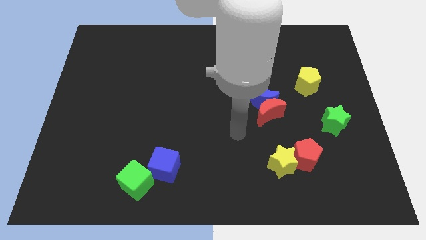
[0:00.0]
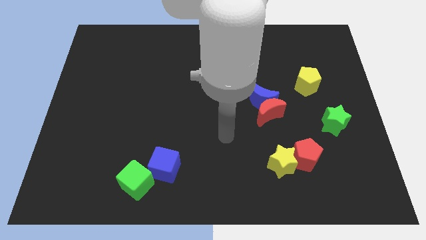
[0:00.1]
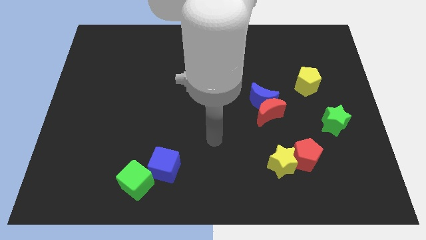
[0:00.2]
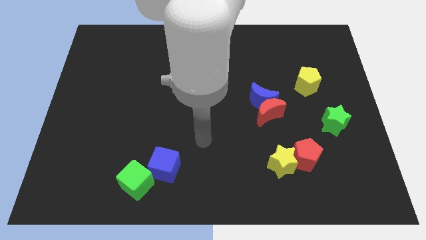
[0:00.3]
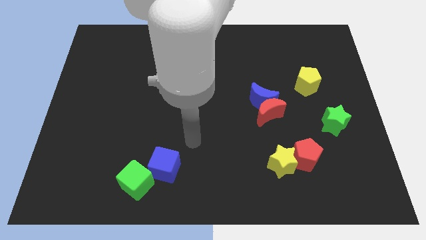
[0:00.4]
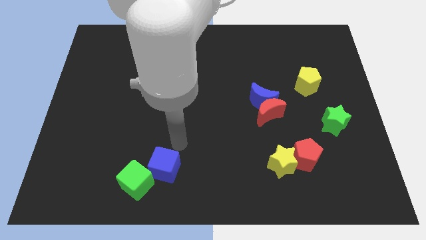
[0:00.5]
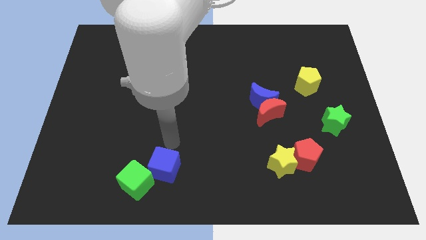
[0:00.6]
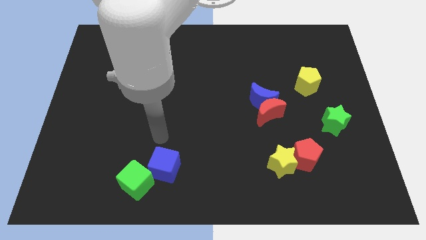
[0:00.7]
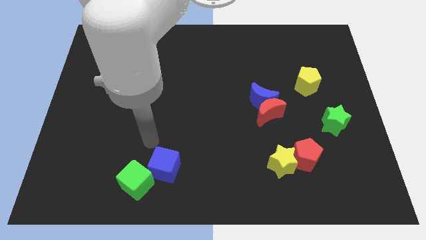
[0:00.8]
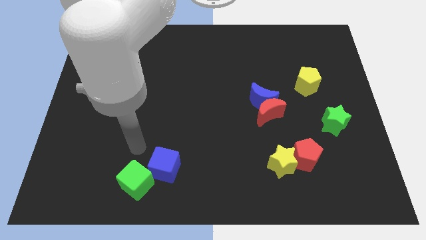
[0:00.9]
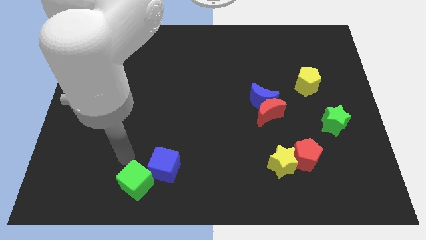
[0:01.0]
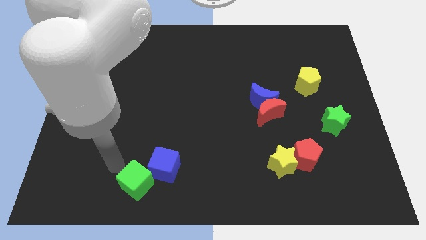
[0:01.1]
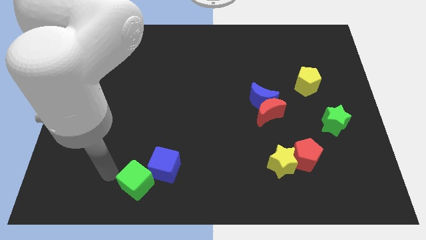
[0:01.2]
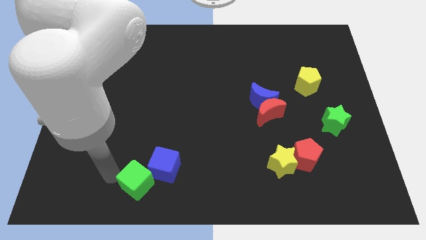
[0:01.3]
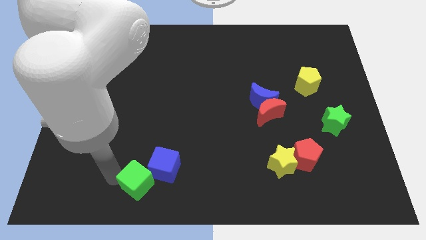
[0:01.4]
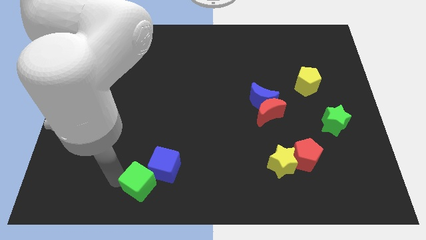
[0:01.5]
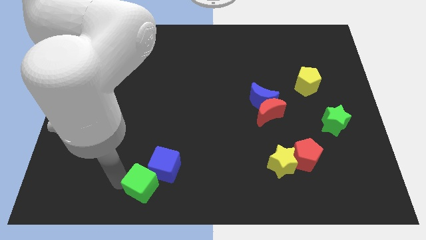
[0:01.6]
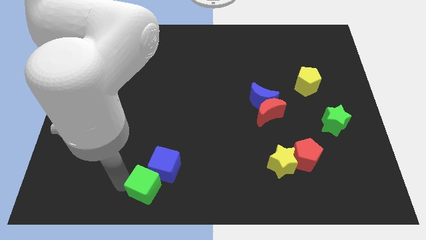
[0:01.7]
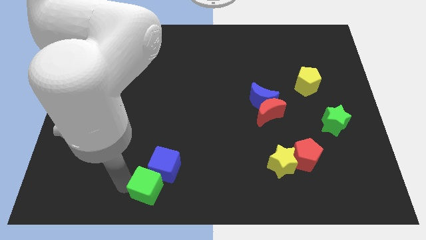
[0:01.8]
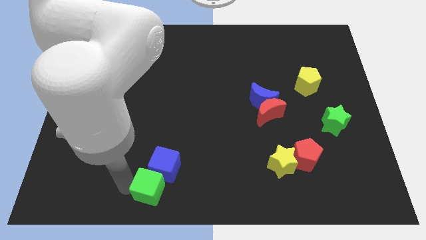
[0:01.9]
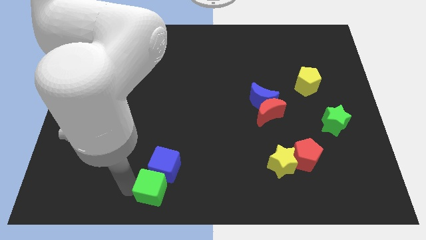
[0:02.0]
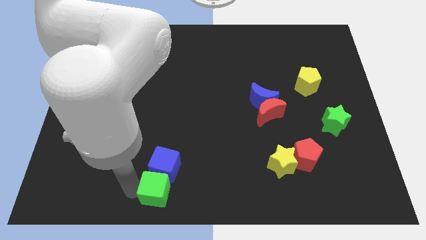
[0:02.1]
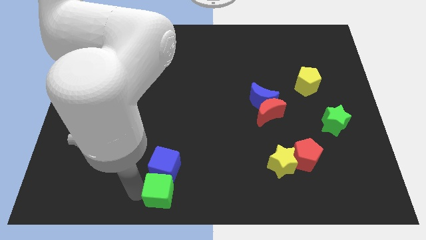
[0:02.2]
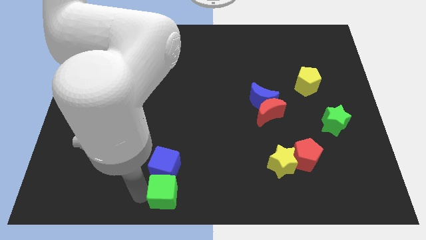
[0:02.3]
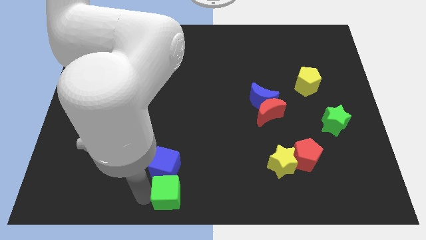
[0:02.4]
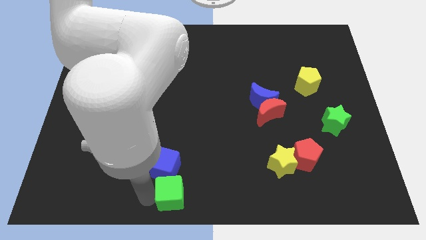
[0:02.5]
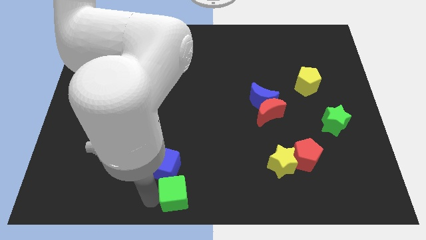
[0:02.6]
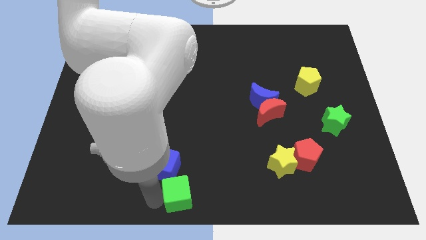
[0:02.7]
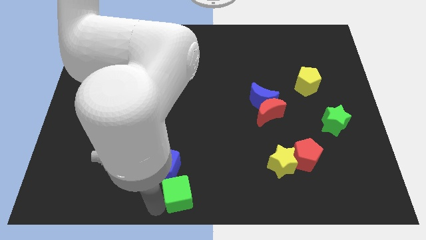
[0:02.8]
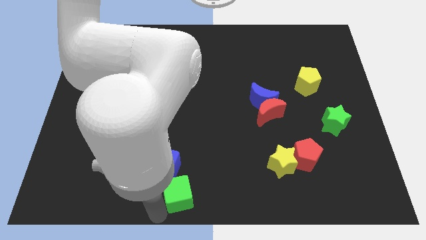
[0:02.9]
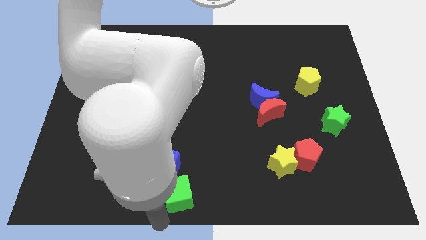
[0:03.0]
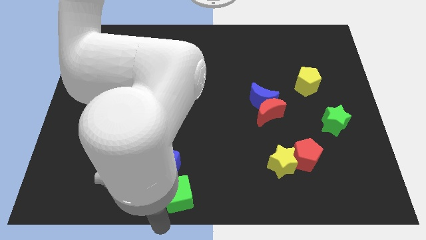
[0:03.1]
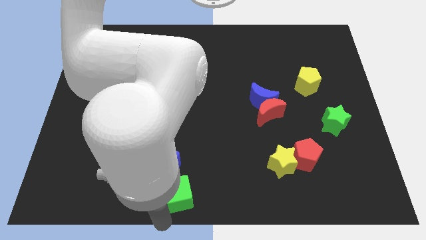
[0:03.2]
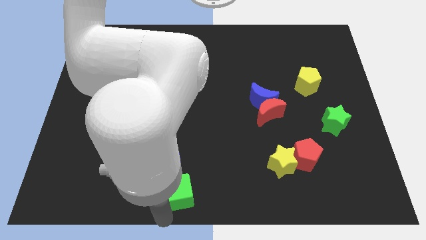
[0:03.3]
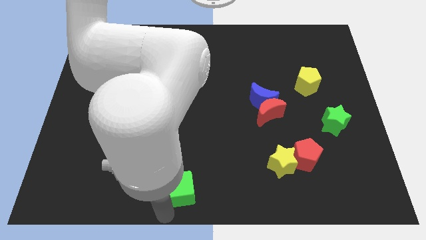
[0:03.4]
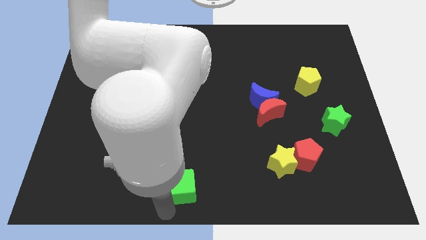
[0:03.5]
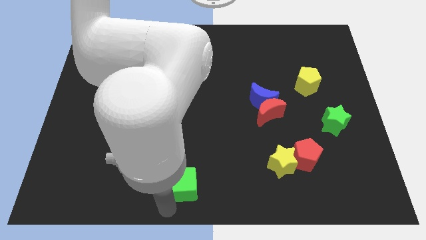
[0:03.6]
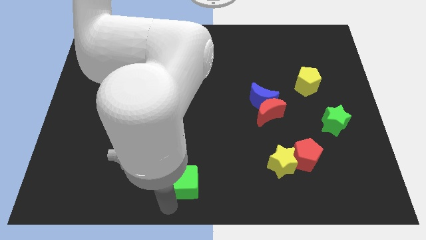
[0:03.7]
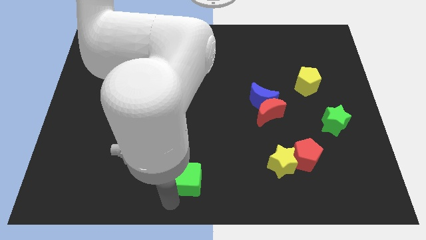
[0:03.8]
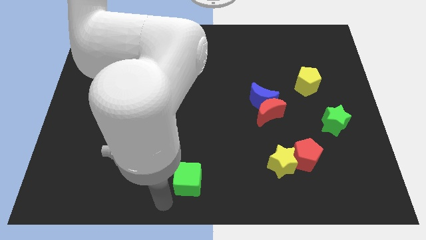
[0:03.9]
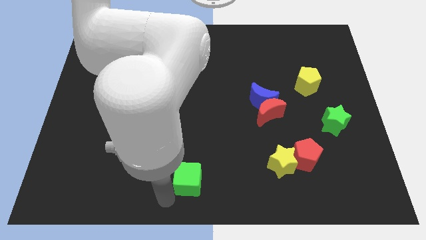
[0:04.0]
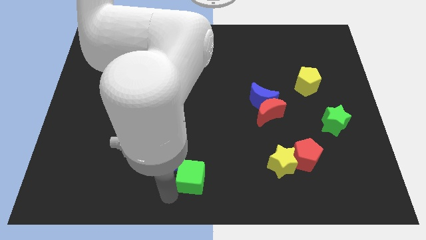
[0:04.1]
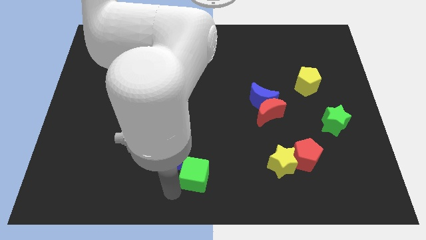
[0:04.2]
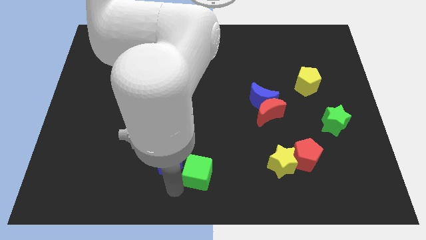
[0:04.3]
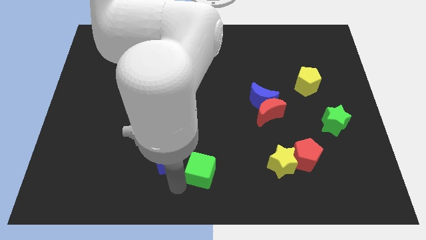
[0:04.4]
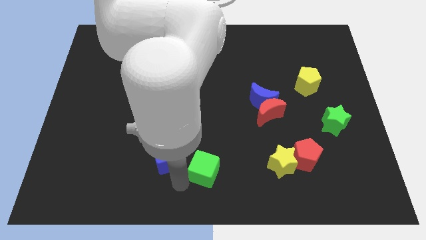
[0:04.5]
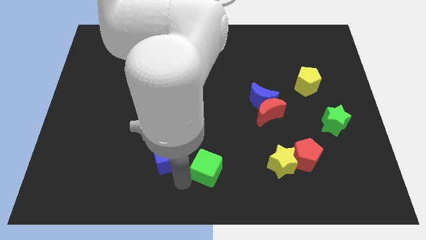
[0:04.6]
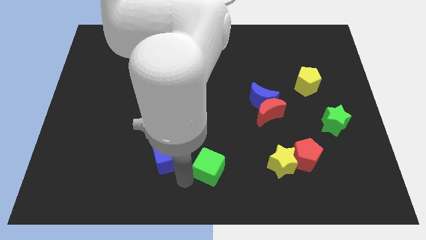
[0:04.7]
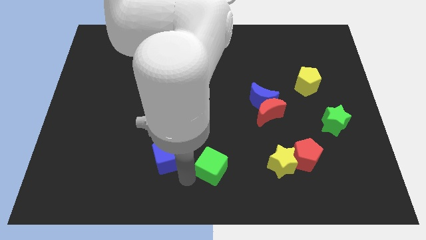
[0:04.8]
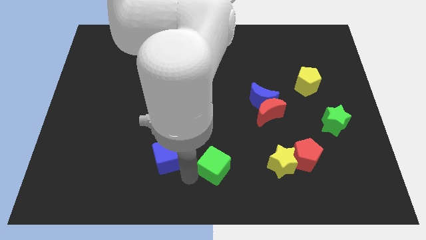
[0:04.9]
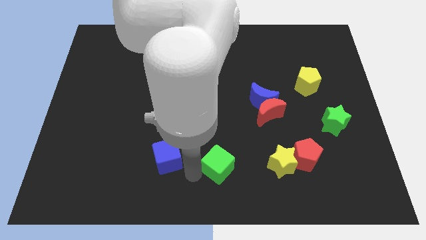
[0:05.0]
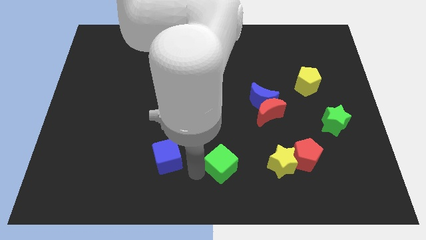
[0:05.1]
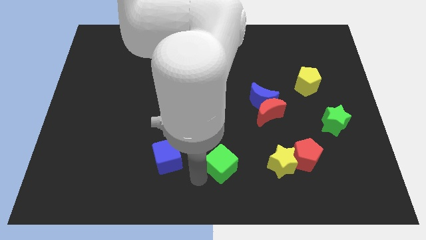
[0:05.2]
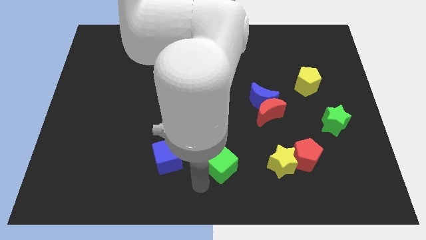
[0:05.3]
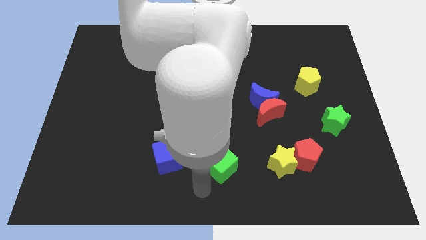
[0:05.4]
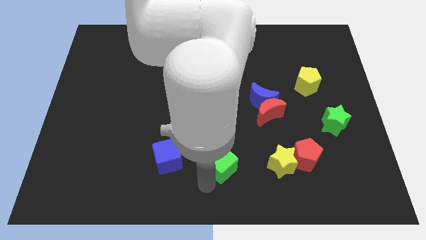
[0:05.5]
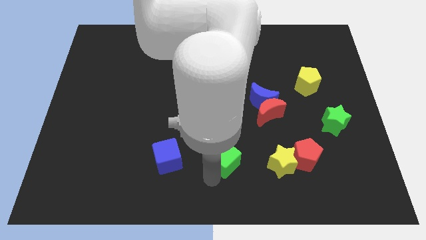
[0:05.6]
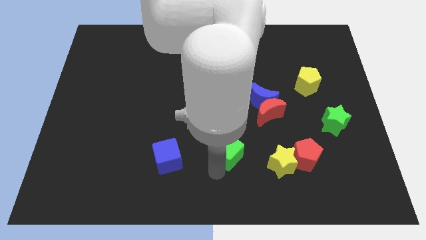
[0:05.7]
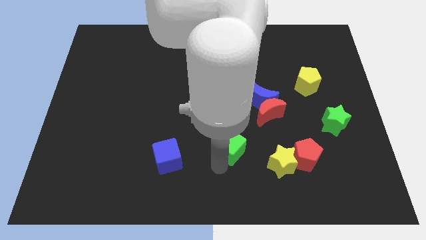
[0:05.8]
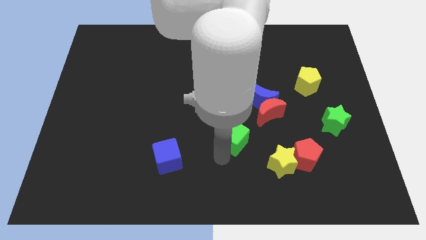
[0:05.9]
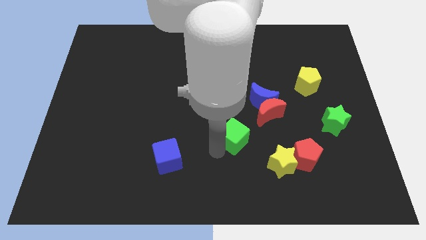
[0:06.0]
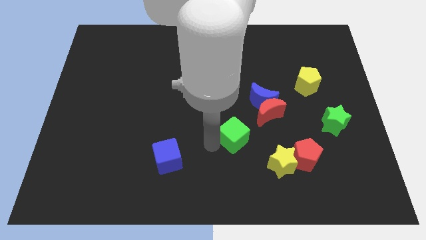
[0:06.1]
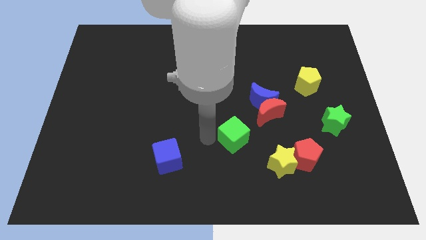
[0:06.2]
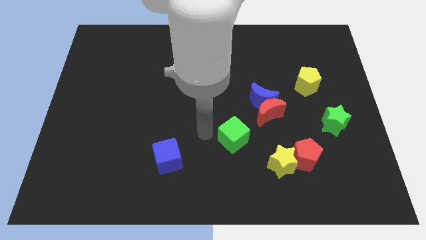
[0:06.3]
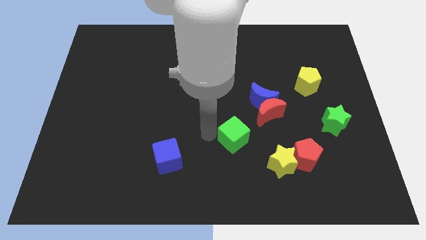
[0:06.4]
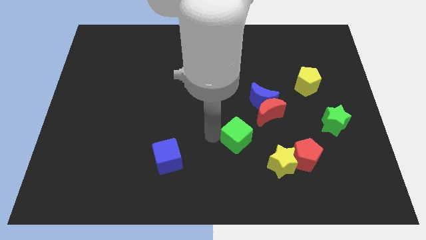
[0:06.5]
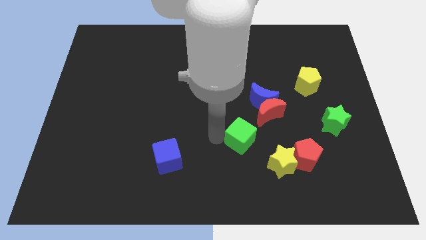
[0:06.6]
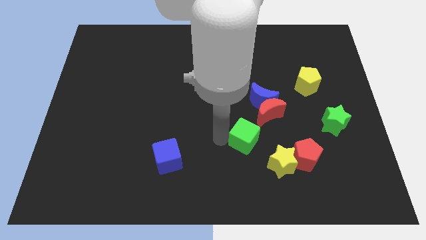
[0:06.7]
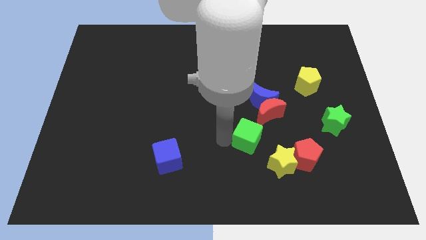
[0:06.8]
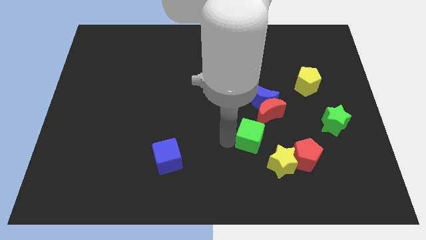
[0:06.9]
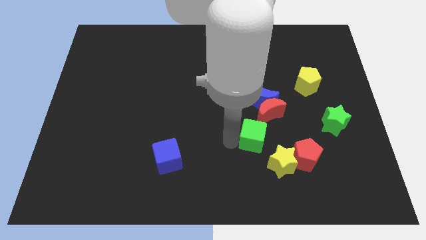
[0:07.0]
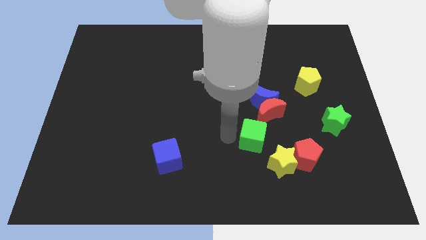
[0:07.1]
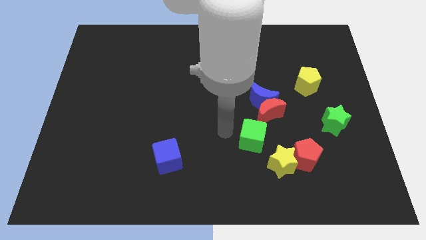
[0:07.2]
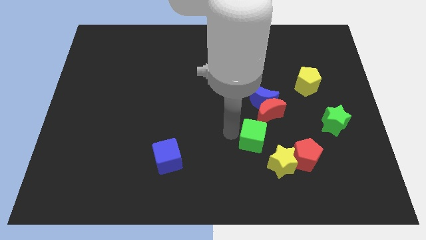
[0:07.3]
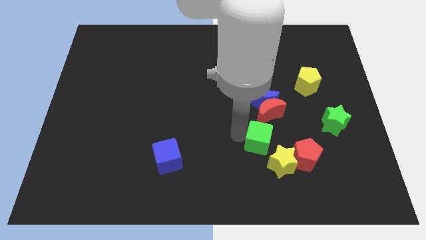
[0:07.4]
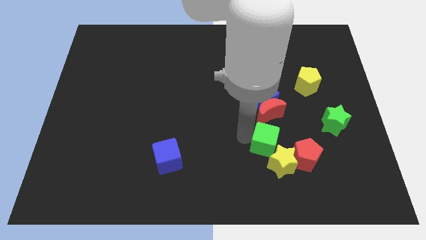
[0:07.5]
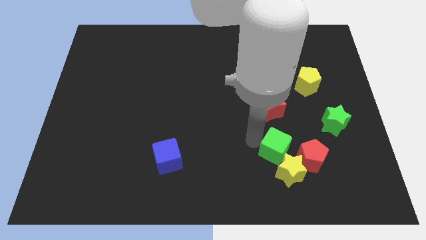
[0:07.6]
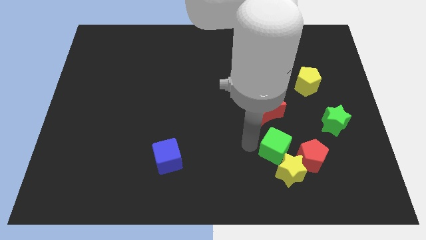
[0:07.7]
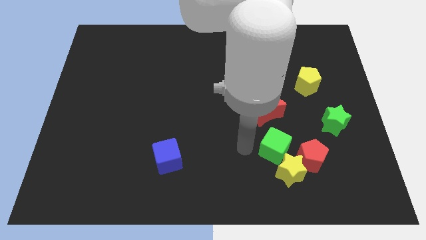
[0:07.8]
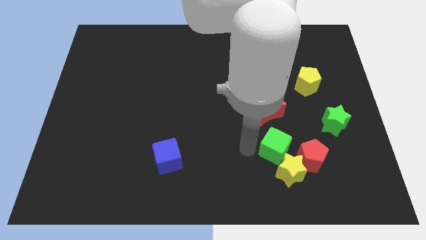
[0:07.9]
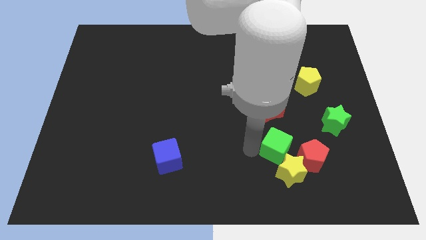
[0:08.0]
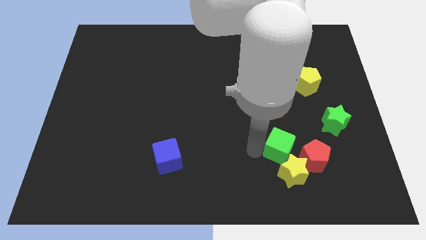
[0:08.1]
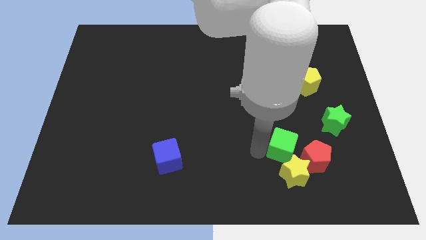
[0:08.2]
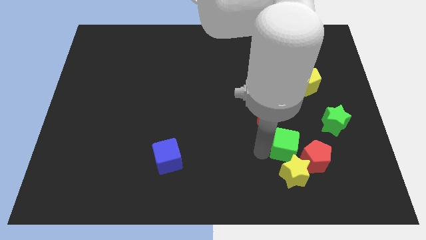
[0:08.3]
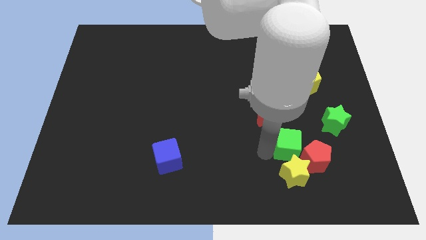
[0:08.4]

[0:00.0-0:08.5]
push the green cube diagonally up and to the right of the yellow star
